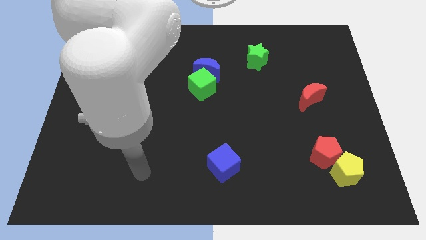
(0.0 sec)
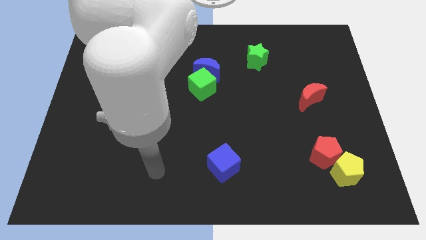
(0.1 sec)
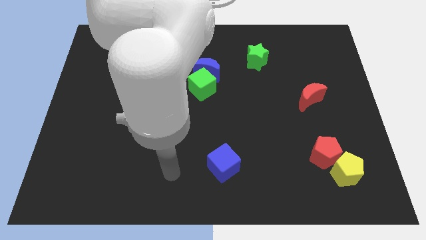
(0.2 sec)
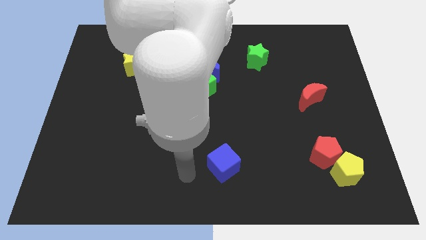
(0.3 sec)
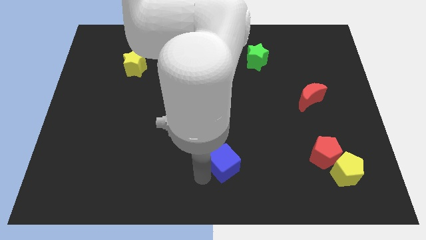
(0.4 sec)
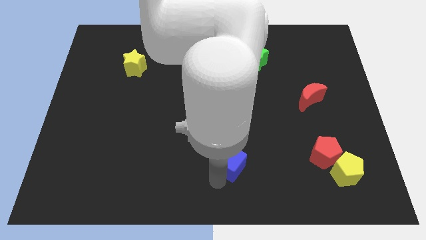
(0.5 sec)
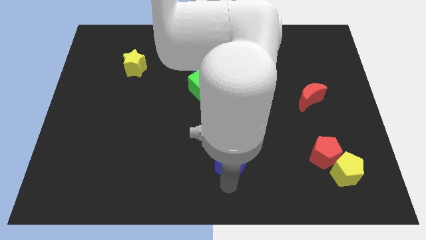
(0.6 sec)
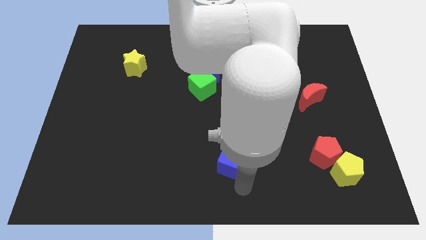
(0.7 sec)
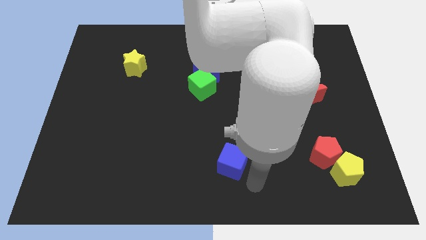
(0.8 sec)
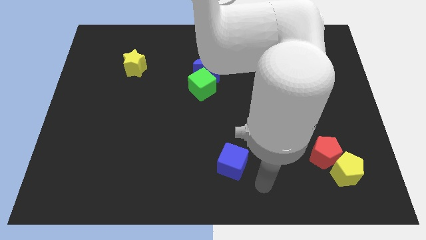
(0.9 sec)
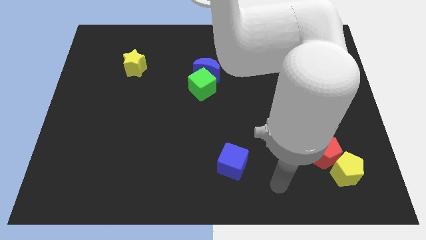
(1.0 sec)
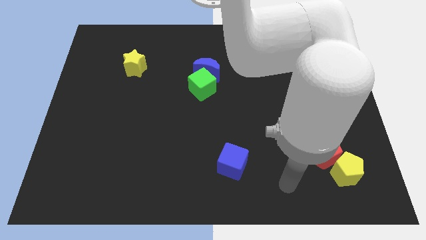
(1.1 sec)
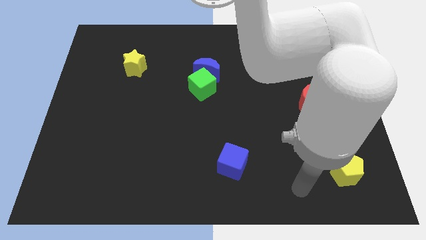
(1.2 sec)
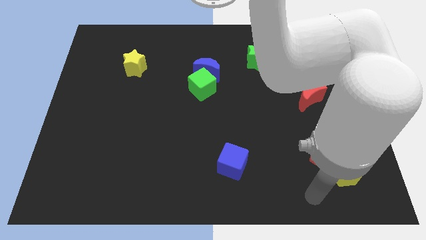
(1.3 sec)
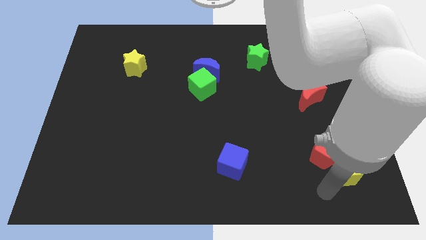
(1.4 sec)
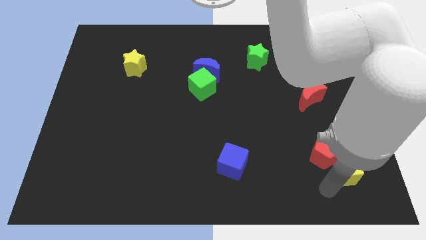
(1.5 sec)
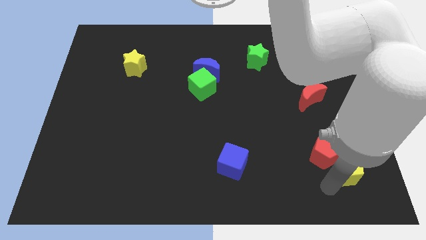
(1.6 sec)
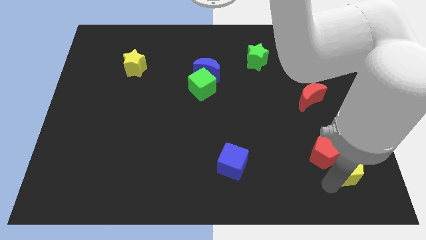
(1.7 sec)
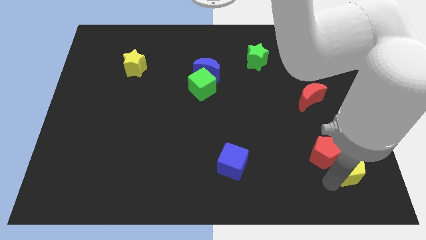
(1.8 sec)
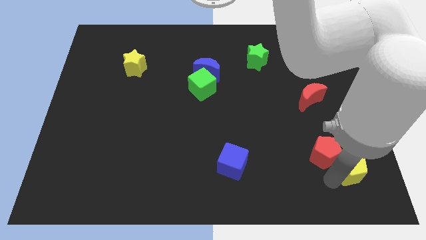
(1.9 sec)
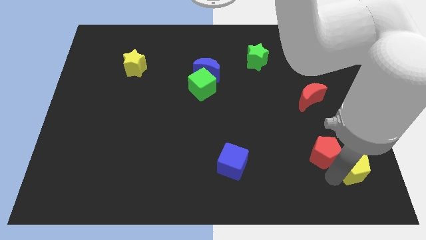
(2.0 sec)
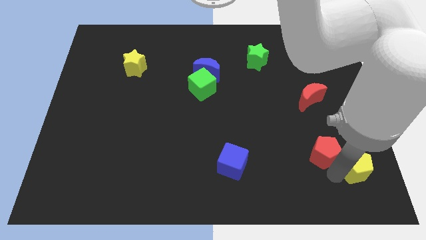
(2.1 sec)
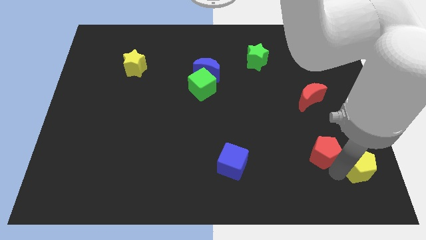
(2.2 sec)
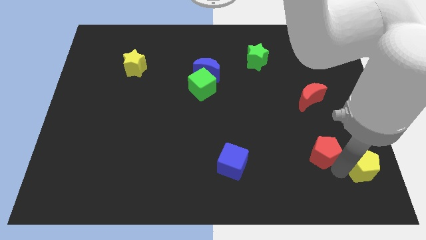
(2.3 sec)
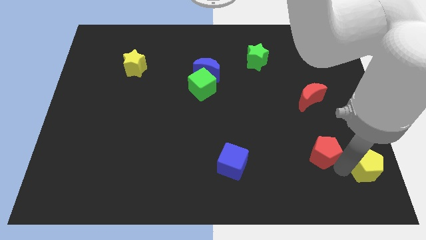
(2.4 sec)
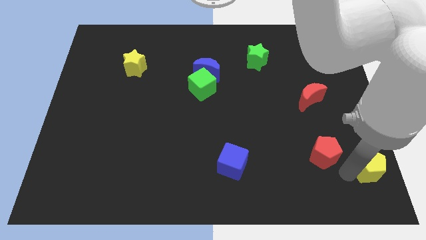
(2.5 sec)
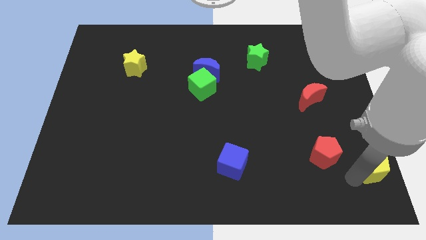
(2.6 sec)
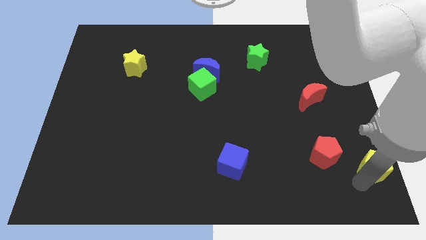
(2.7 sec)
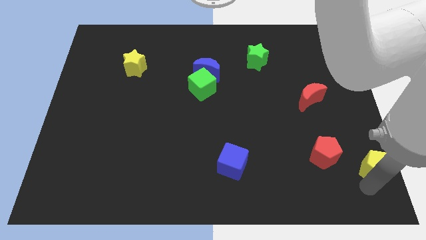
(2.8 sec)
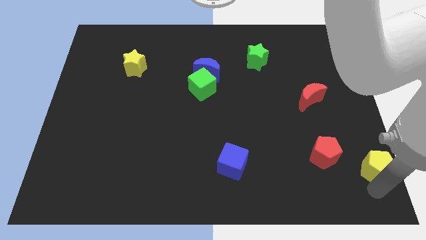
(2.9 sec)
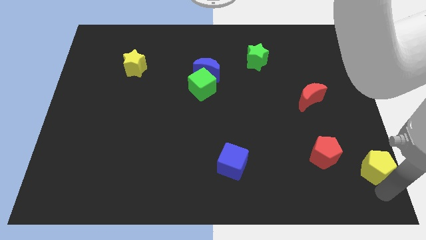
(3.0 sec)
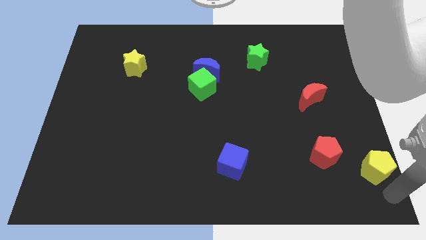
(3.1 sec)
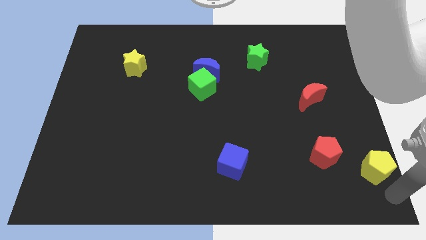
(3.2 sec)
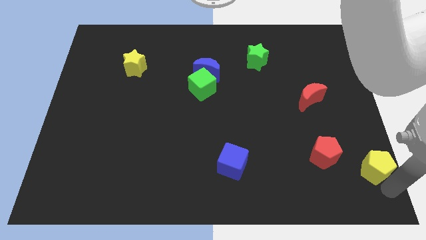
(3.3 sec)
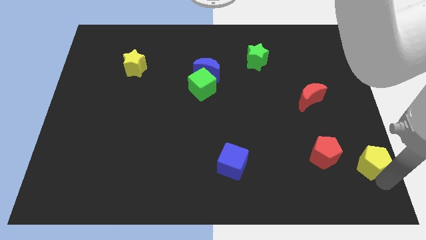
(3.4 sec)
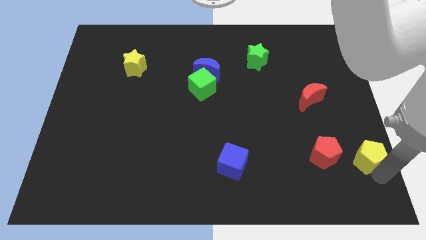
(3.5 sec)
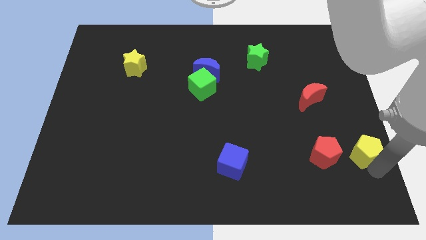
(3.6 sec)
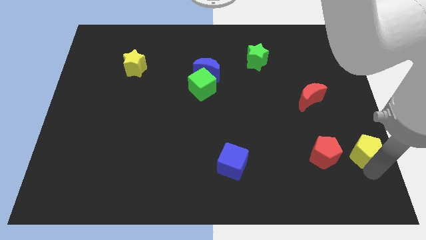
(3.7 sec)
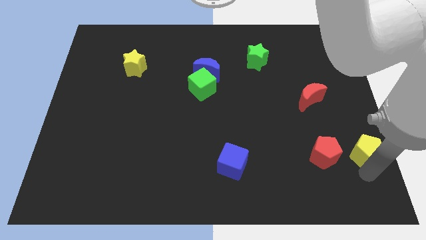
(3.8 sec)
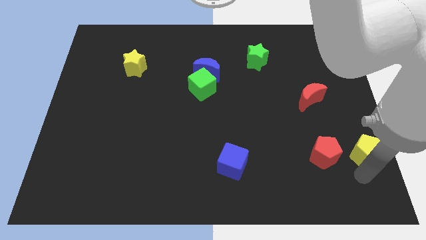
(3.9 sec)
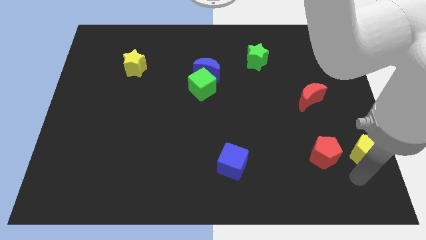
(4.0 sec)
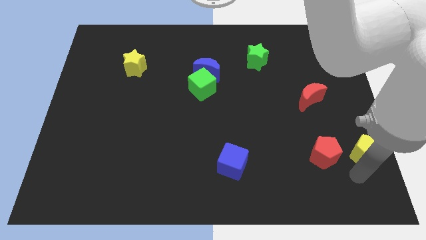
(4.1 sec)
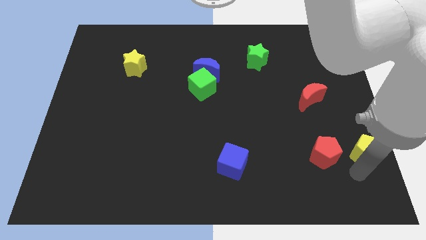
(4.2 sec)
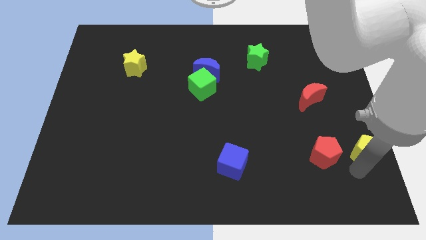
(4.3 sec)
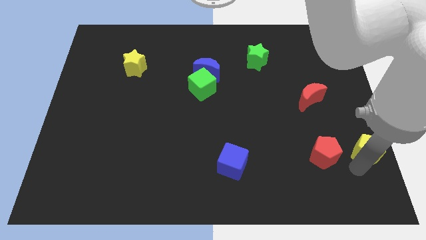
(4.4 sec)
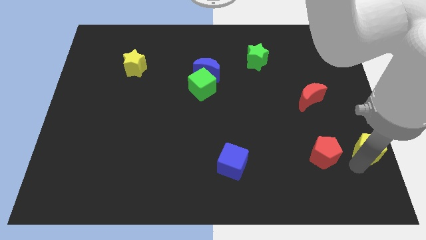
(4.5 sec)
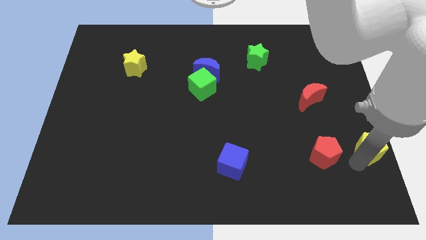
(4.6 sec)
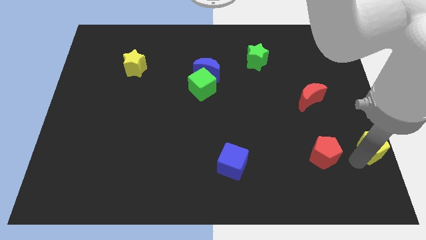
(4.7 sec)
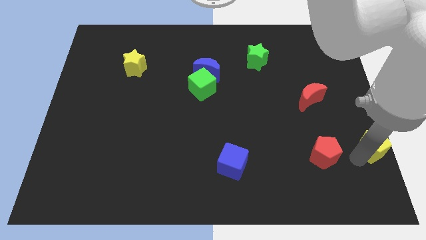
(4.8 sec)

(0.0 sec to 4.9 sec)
put the yellow pentagon to the right side of the board
